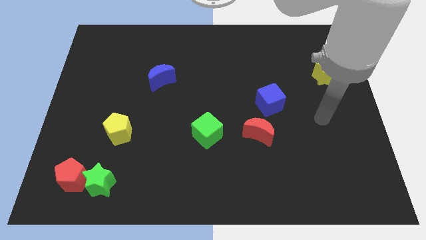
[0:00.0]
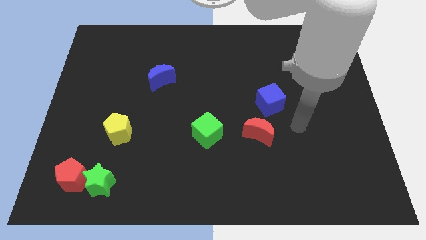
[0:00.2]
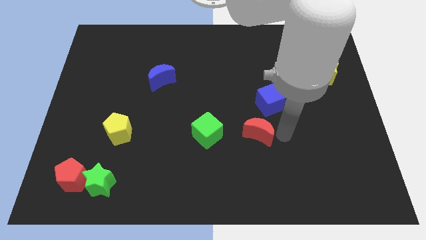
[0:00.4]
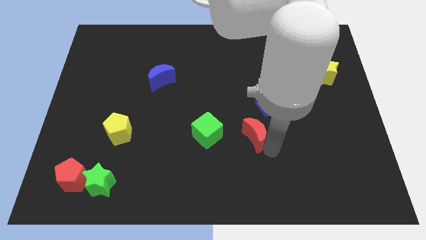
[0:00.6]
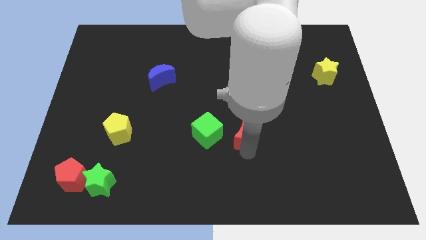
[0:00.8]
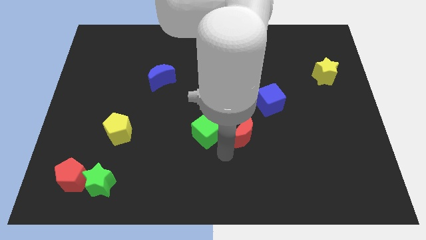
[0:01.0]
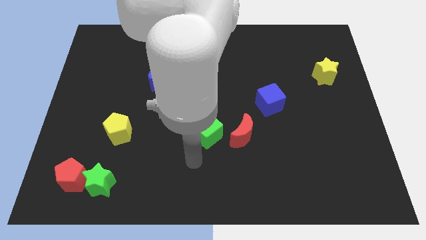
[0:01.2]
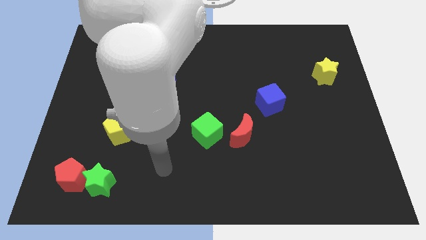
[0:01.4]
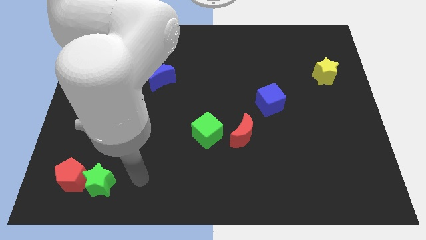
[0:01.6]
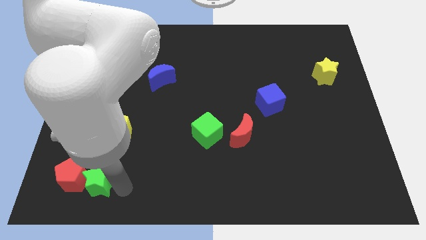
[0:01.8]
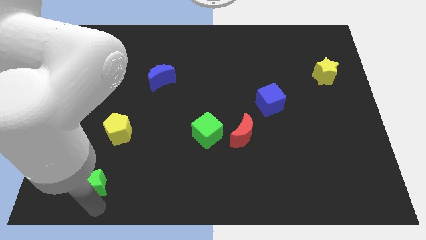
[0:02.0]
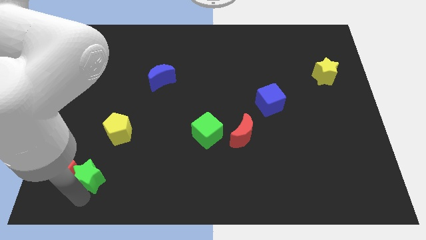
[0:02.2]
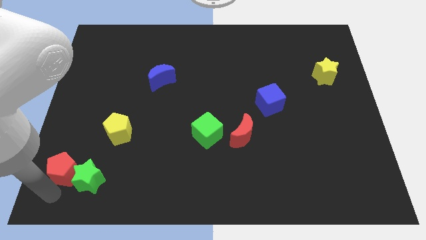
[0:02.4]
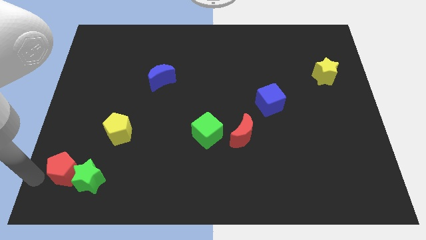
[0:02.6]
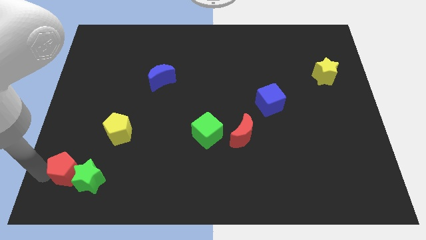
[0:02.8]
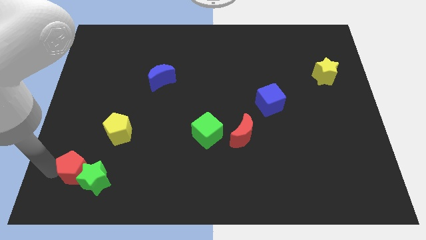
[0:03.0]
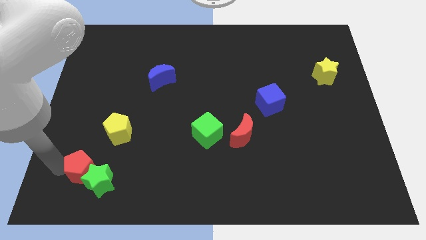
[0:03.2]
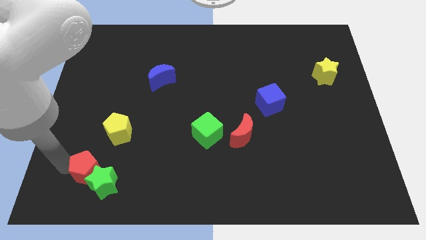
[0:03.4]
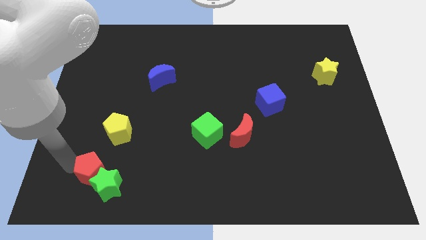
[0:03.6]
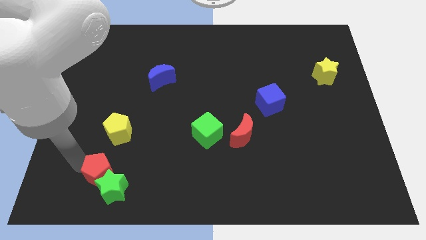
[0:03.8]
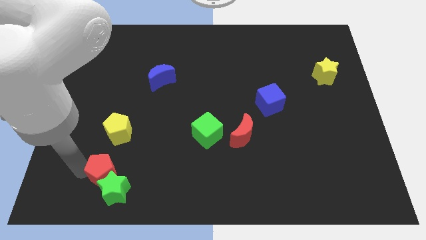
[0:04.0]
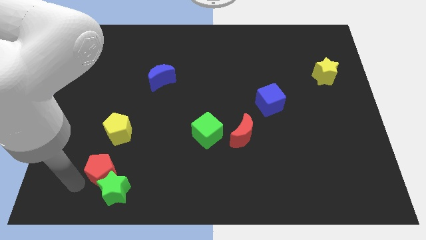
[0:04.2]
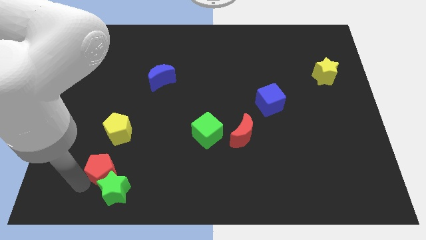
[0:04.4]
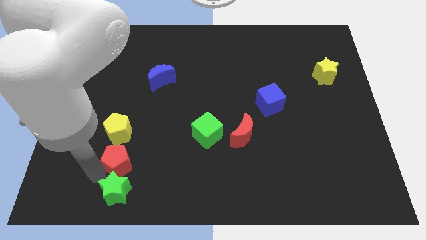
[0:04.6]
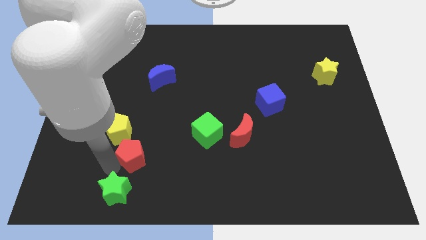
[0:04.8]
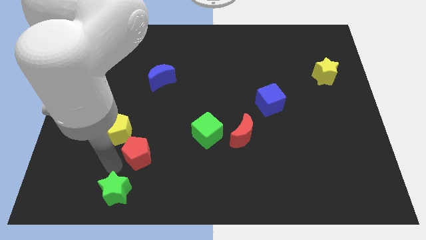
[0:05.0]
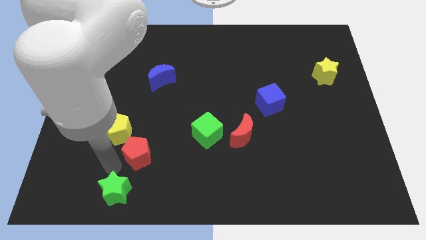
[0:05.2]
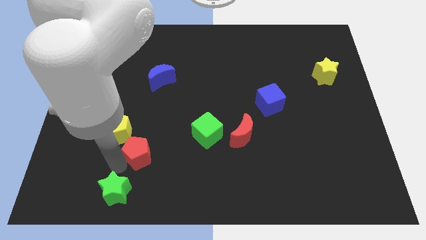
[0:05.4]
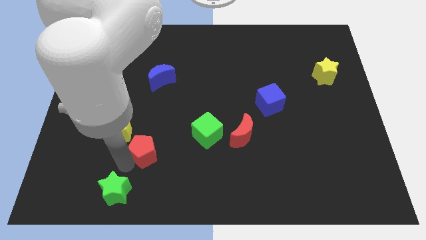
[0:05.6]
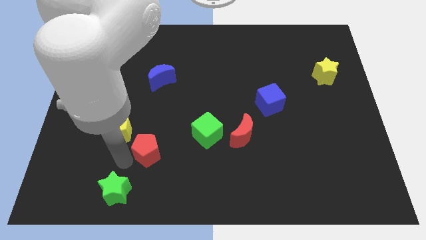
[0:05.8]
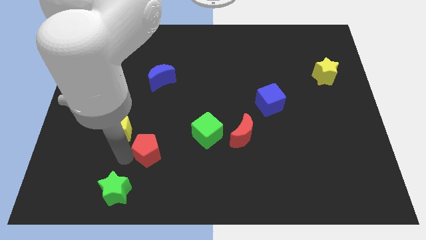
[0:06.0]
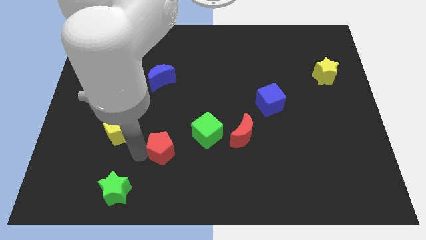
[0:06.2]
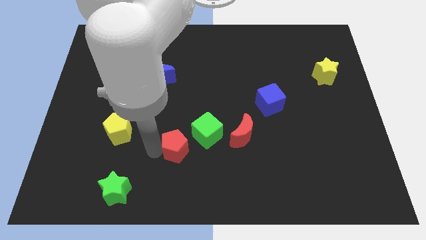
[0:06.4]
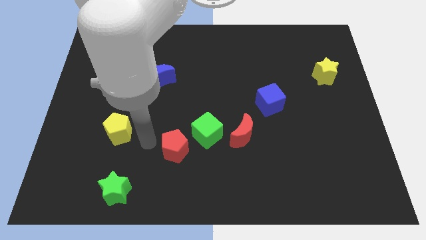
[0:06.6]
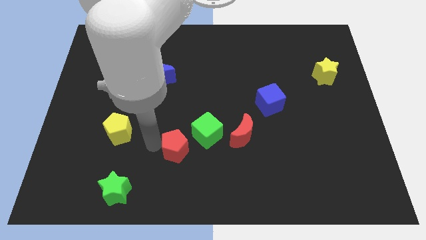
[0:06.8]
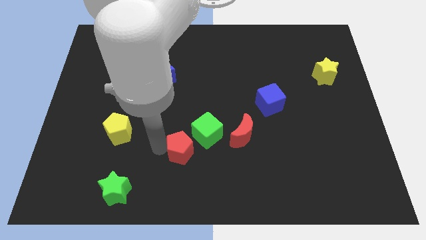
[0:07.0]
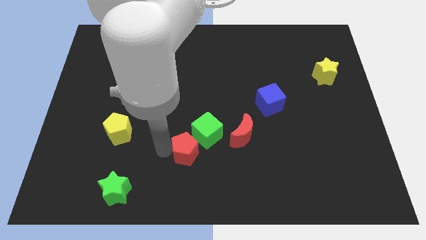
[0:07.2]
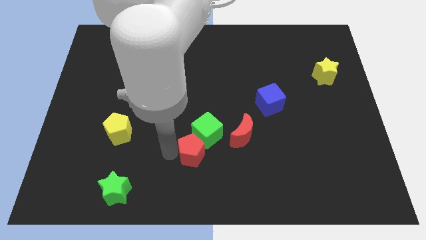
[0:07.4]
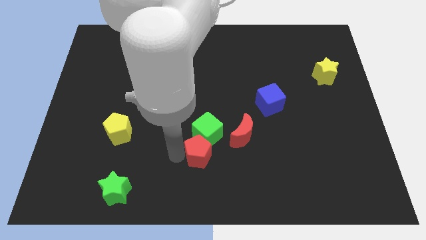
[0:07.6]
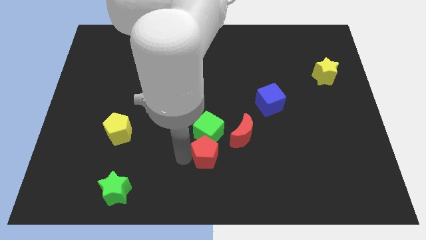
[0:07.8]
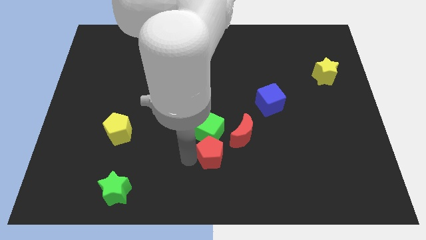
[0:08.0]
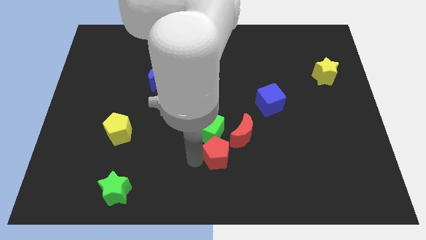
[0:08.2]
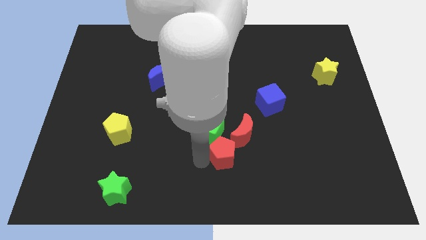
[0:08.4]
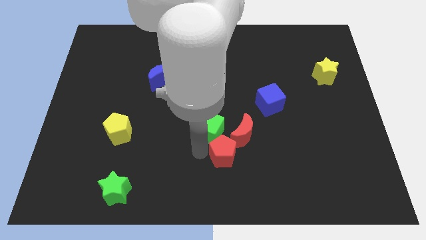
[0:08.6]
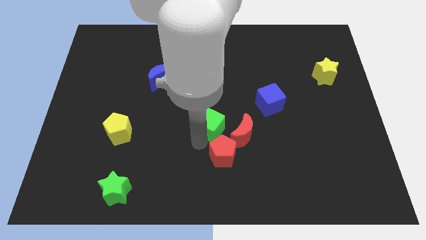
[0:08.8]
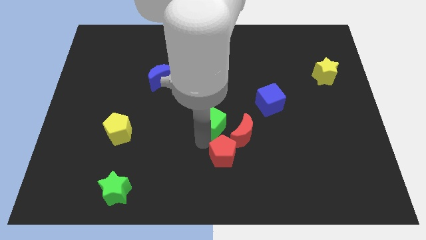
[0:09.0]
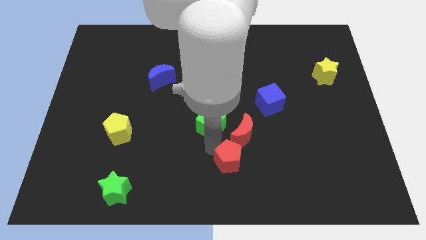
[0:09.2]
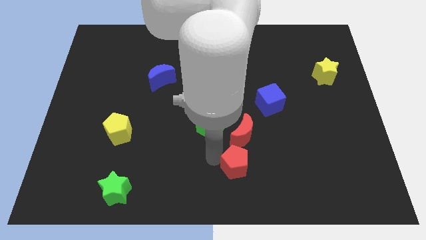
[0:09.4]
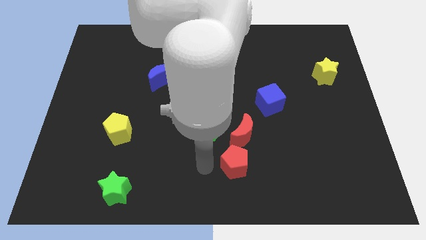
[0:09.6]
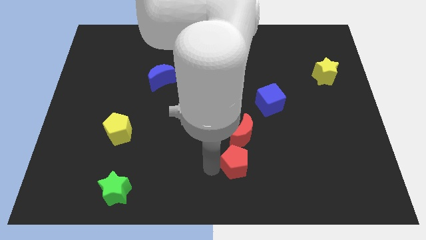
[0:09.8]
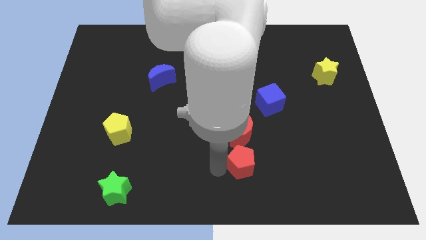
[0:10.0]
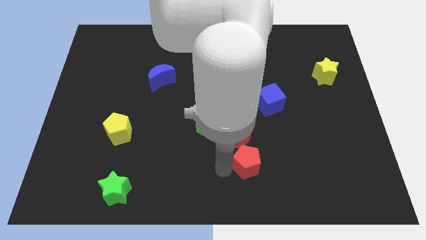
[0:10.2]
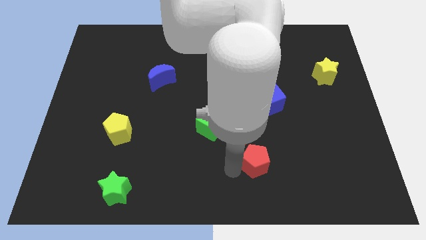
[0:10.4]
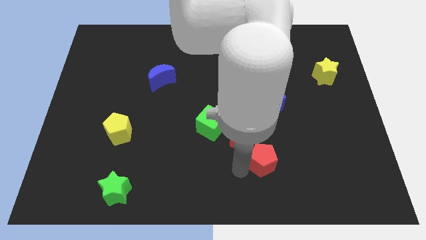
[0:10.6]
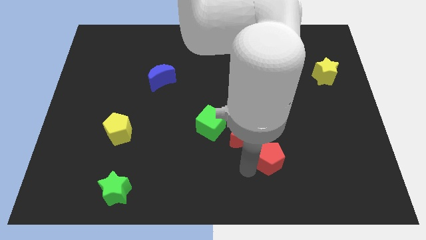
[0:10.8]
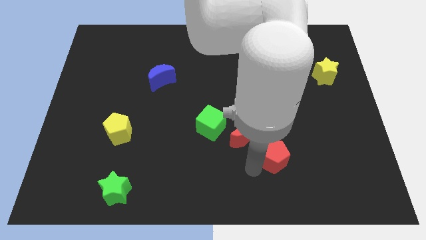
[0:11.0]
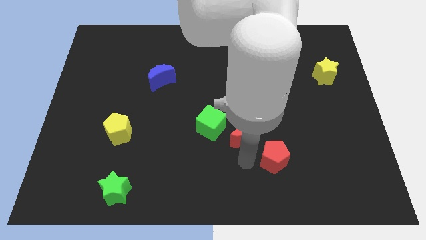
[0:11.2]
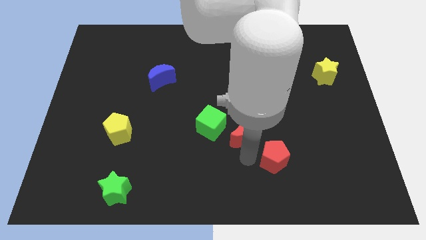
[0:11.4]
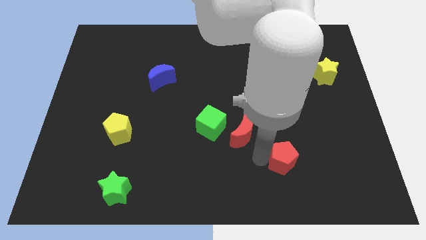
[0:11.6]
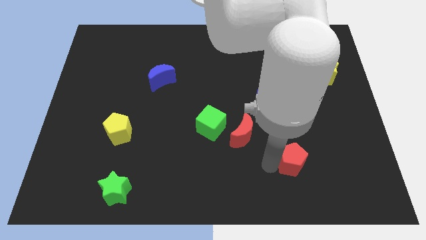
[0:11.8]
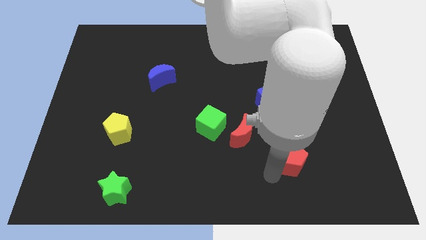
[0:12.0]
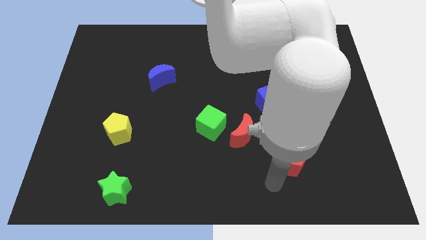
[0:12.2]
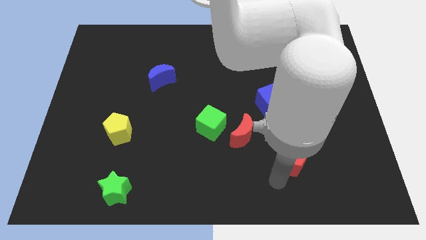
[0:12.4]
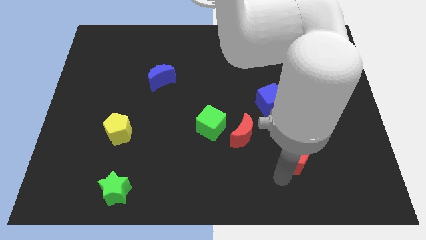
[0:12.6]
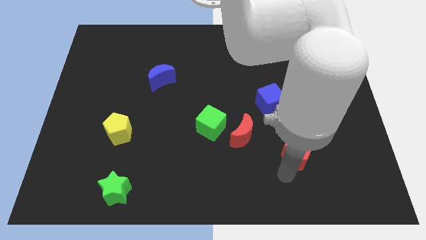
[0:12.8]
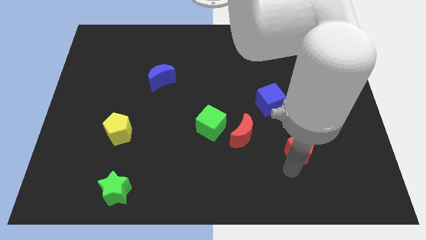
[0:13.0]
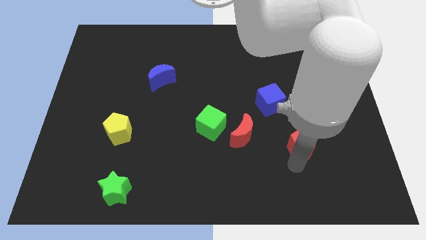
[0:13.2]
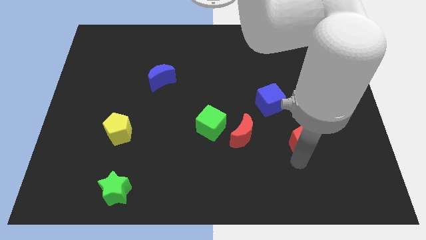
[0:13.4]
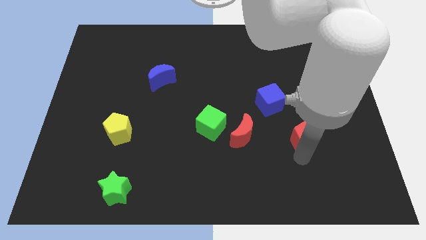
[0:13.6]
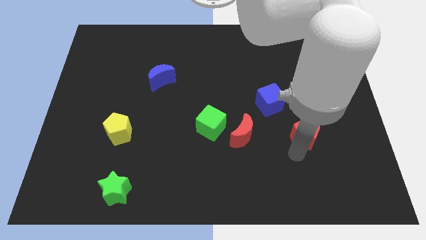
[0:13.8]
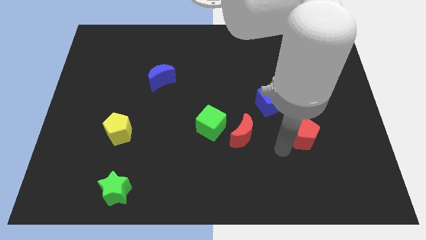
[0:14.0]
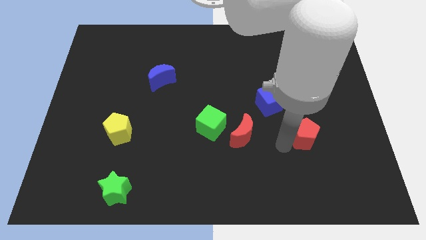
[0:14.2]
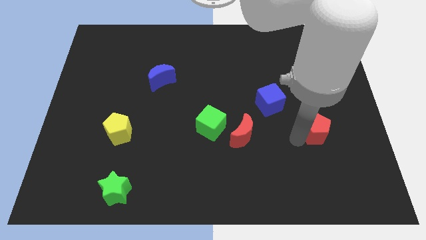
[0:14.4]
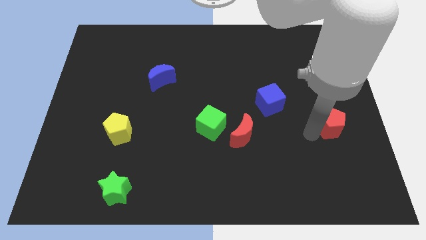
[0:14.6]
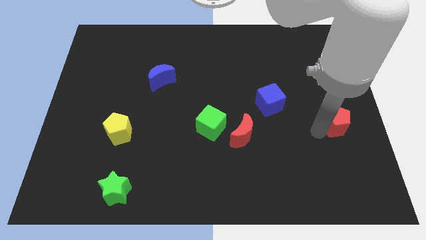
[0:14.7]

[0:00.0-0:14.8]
slide the red pentagon to the right side

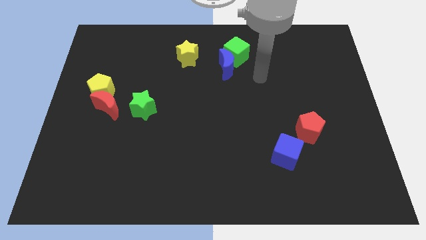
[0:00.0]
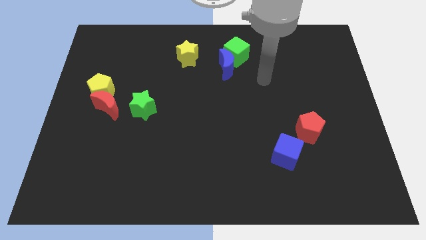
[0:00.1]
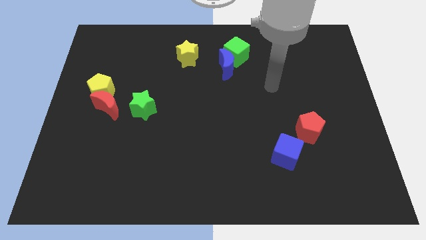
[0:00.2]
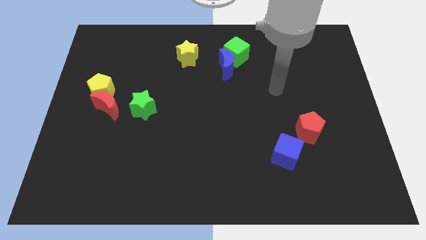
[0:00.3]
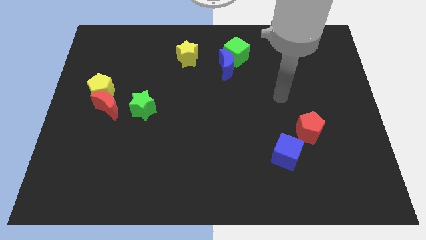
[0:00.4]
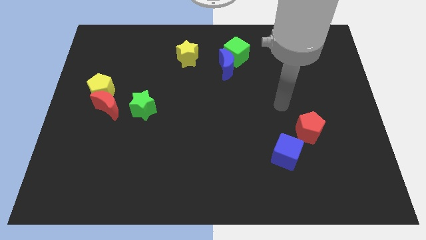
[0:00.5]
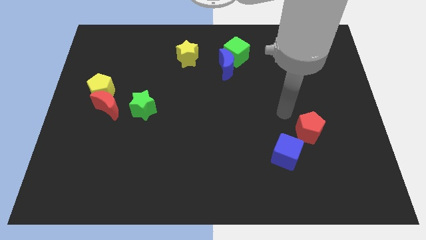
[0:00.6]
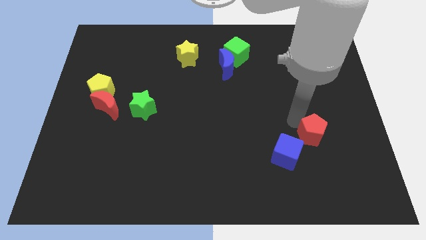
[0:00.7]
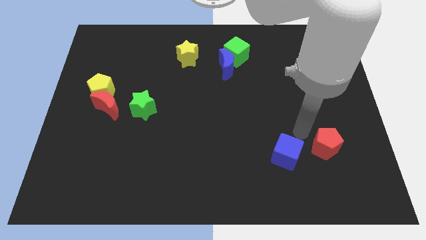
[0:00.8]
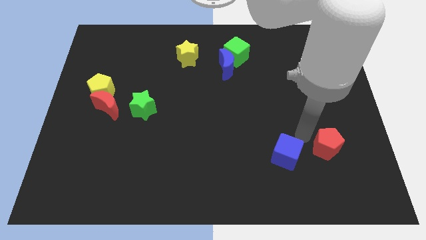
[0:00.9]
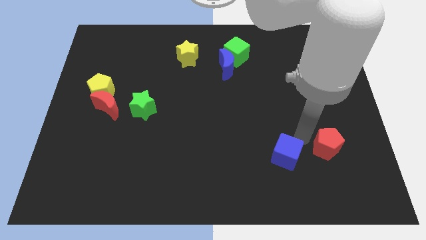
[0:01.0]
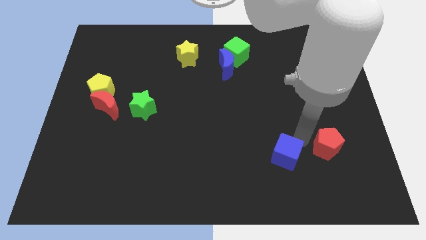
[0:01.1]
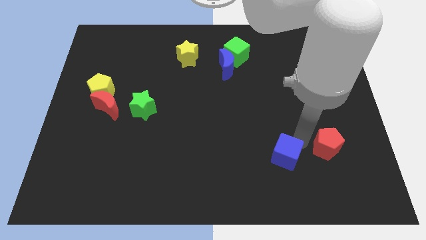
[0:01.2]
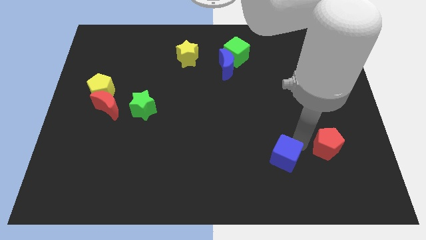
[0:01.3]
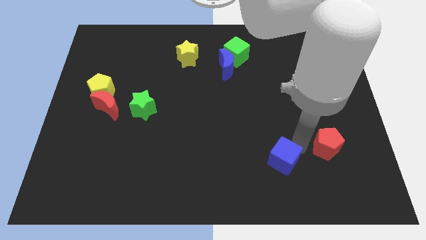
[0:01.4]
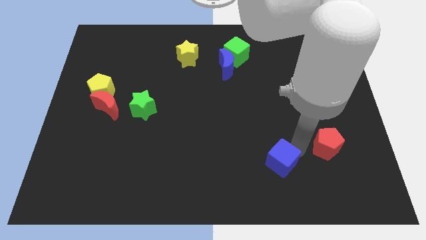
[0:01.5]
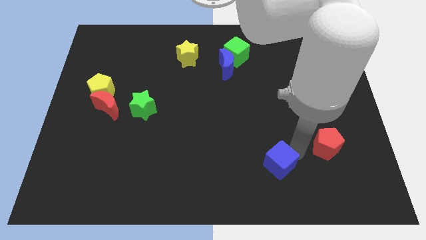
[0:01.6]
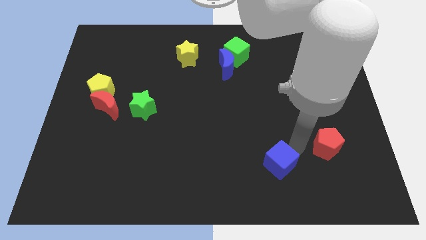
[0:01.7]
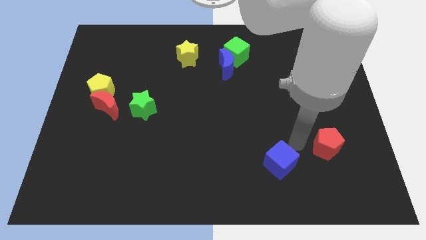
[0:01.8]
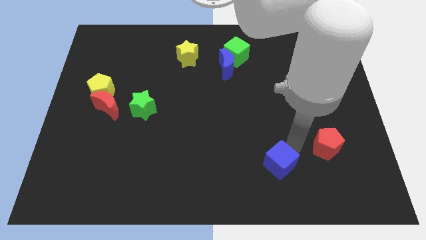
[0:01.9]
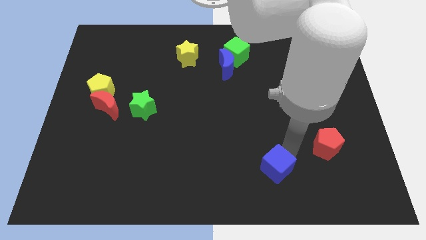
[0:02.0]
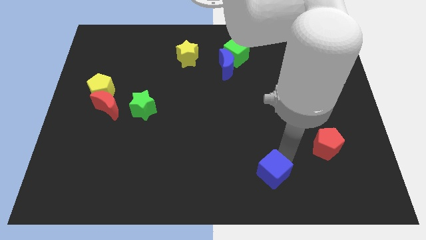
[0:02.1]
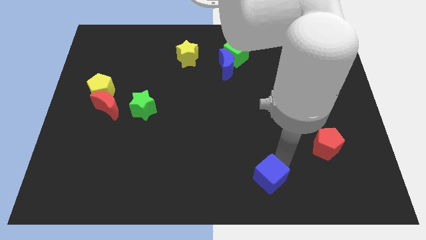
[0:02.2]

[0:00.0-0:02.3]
push the blue cube to the bottom side
